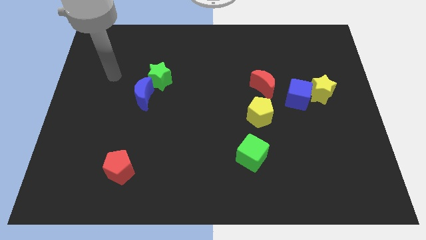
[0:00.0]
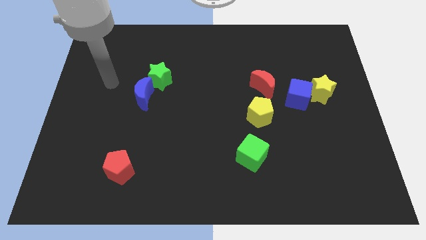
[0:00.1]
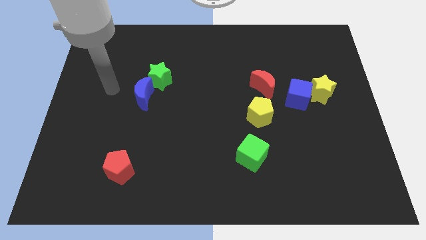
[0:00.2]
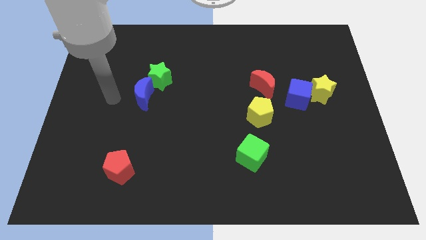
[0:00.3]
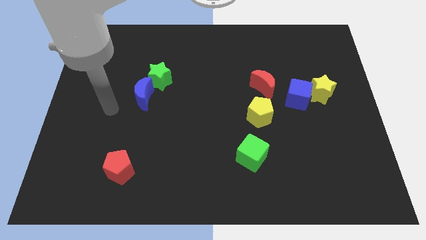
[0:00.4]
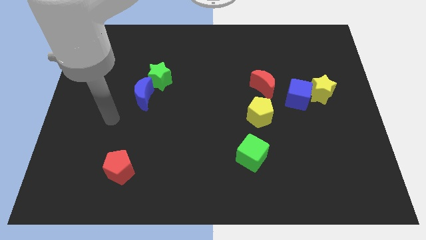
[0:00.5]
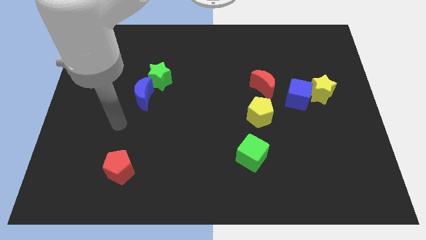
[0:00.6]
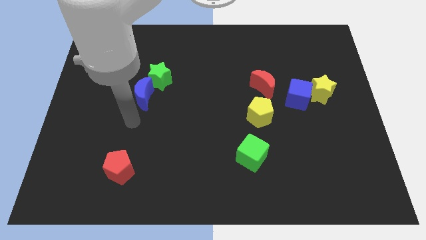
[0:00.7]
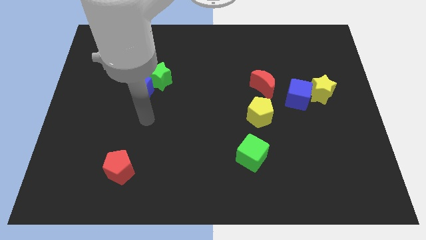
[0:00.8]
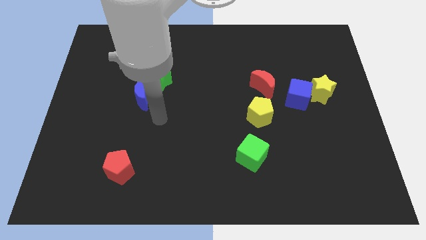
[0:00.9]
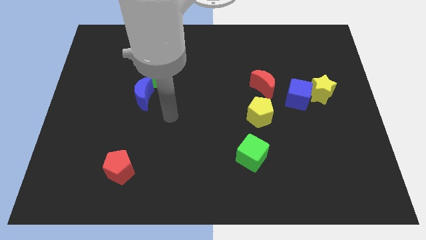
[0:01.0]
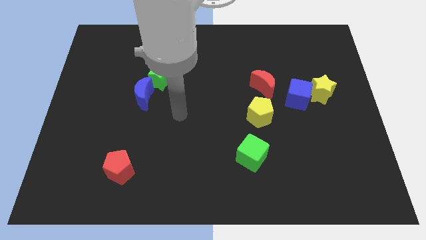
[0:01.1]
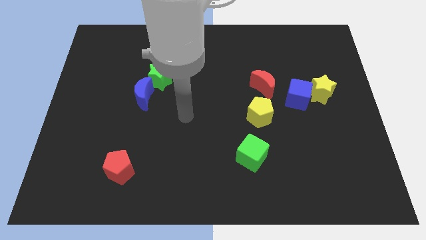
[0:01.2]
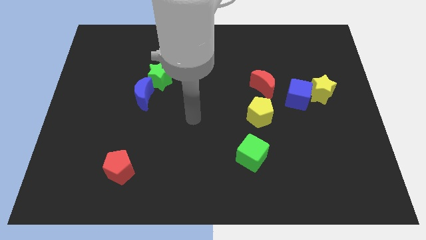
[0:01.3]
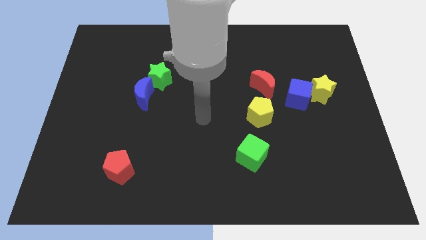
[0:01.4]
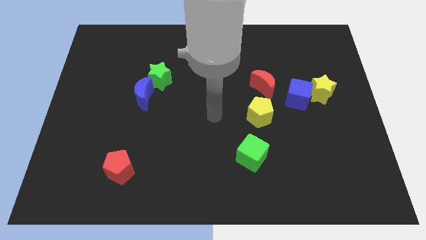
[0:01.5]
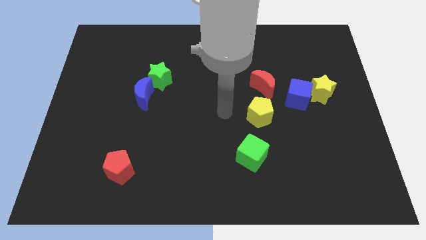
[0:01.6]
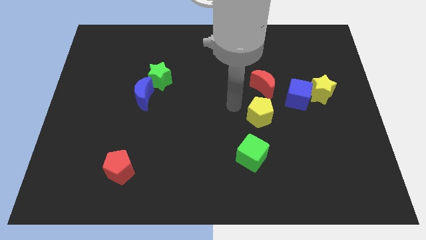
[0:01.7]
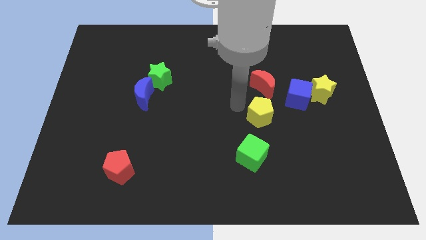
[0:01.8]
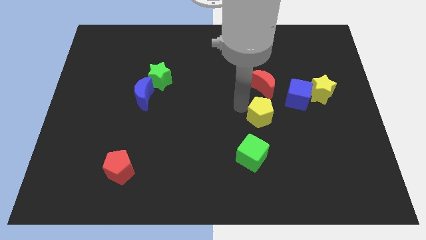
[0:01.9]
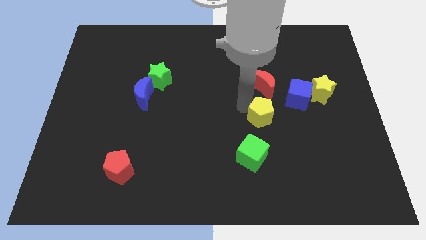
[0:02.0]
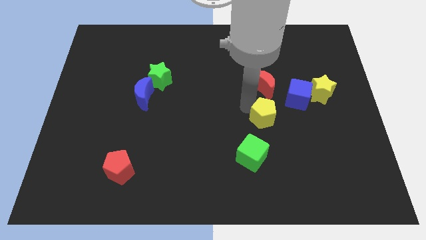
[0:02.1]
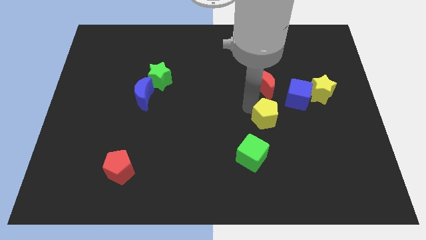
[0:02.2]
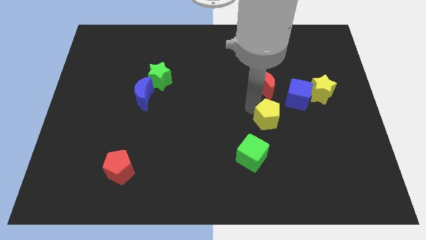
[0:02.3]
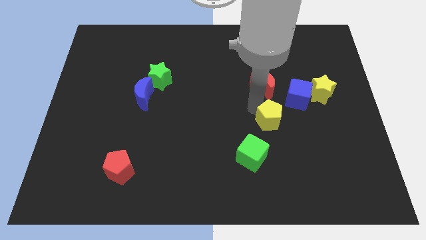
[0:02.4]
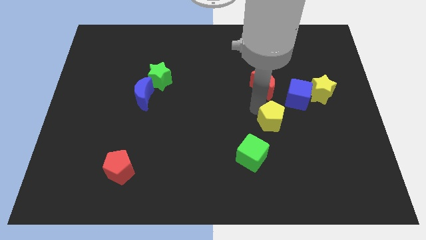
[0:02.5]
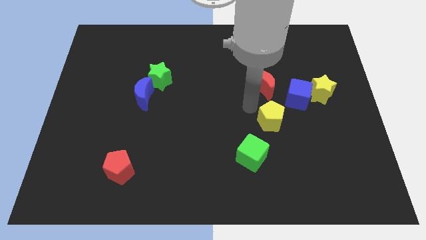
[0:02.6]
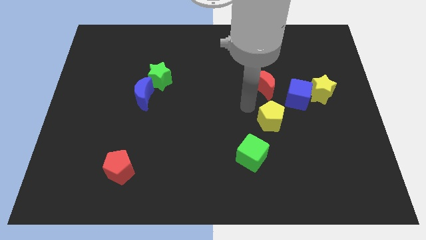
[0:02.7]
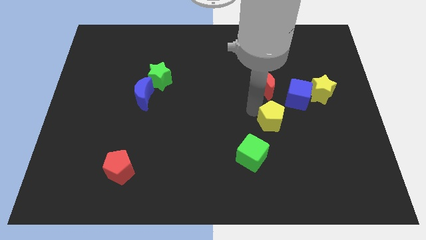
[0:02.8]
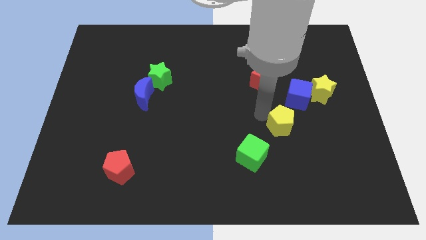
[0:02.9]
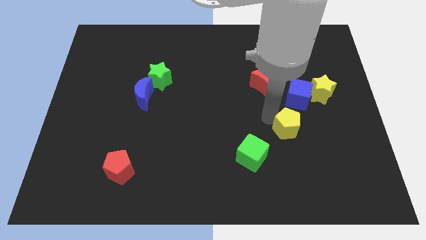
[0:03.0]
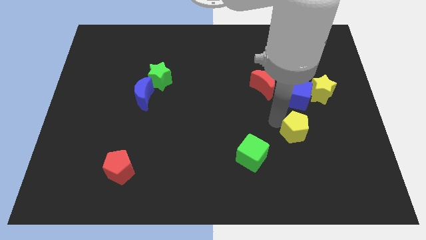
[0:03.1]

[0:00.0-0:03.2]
push the yellow pentagon a bit diagonally downwards and right

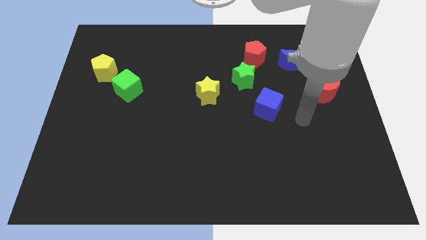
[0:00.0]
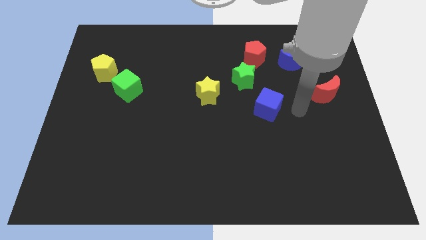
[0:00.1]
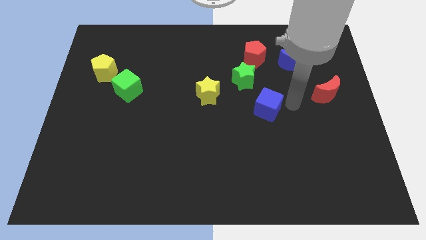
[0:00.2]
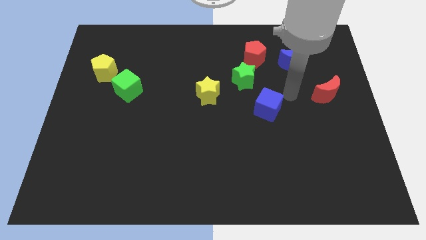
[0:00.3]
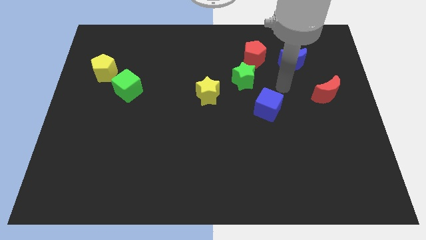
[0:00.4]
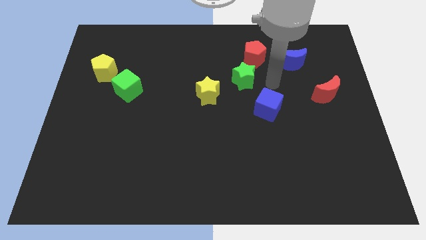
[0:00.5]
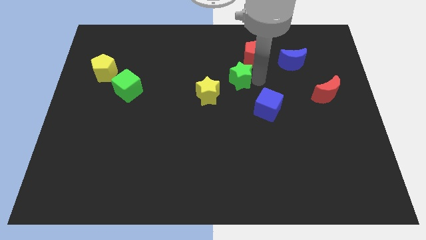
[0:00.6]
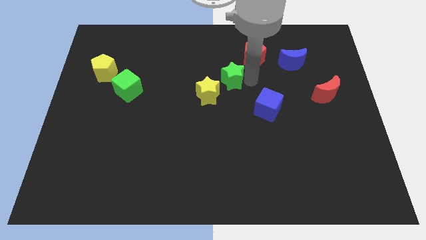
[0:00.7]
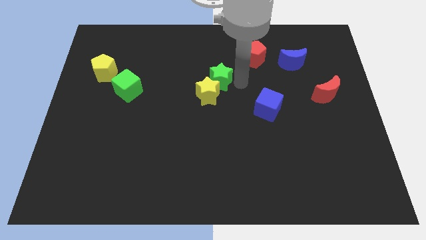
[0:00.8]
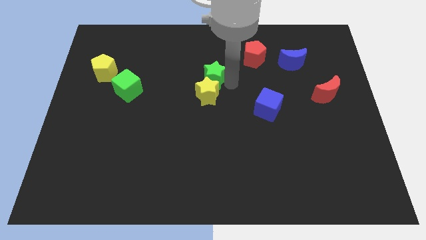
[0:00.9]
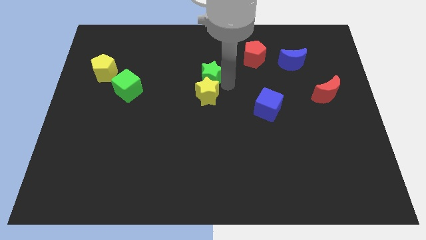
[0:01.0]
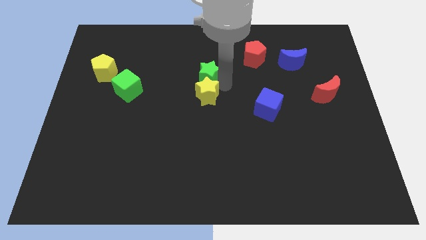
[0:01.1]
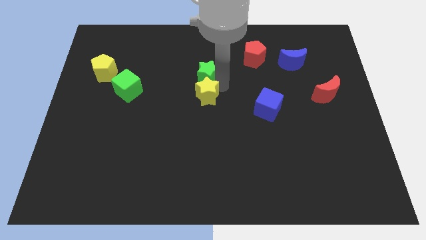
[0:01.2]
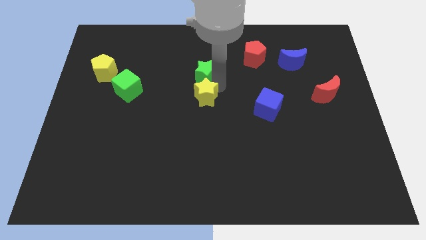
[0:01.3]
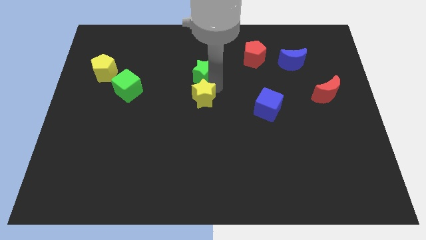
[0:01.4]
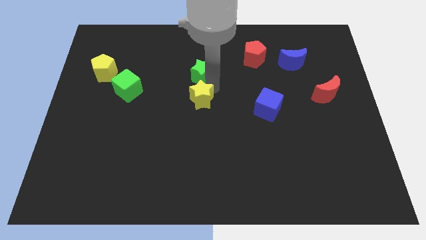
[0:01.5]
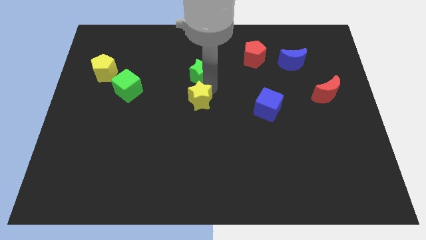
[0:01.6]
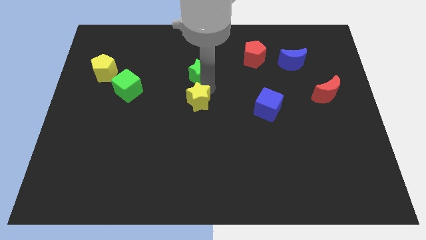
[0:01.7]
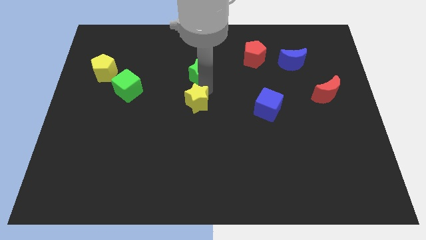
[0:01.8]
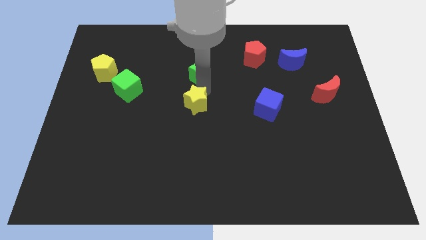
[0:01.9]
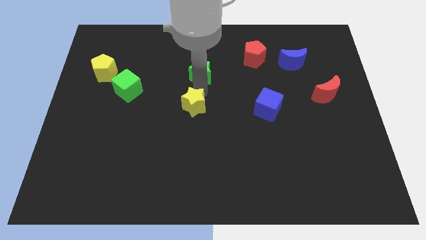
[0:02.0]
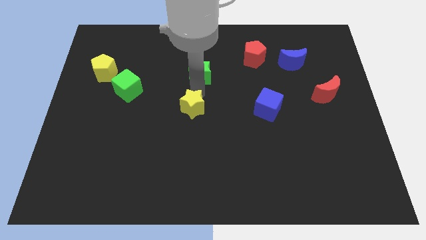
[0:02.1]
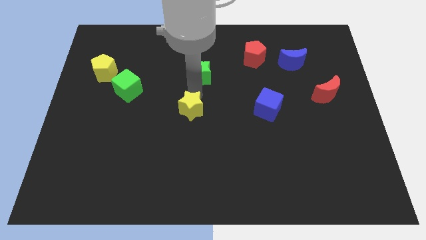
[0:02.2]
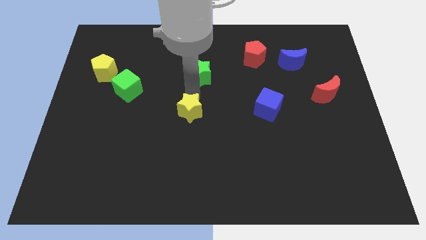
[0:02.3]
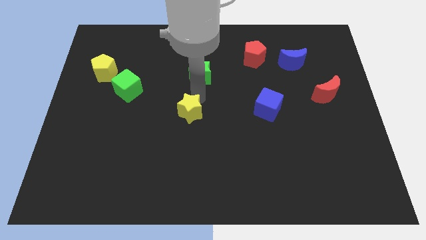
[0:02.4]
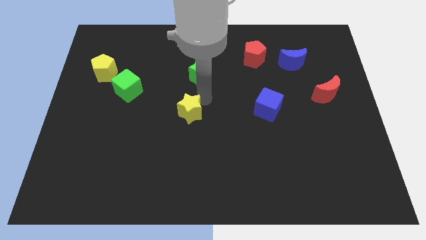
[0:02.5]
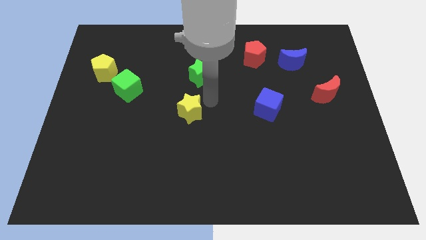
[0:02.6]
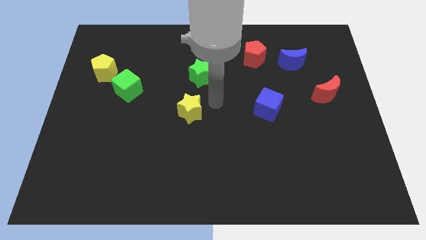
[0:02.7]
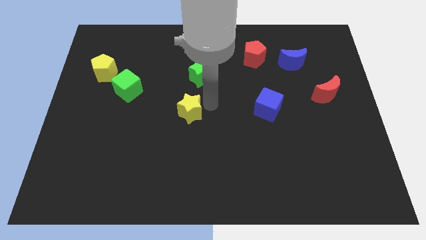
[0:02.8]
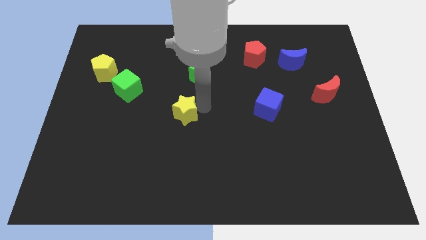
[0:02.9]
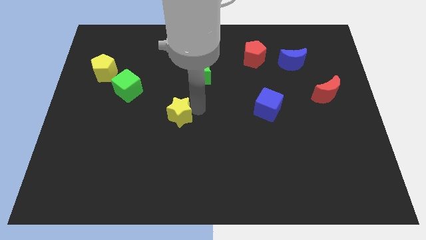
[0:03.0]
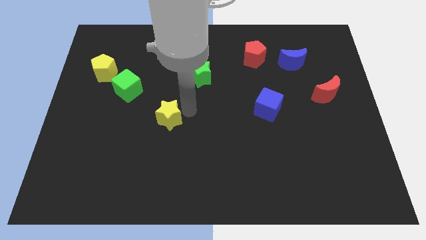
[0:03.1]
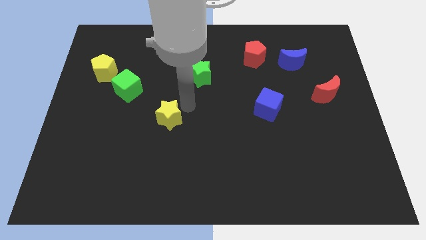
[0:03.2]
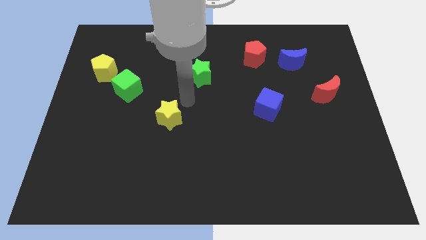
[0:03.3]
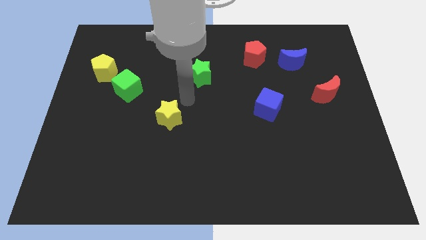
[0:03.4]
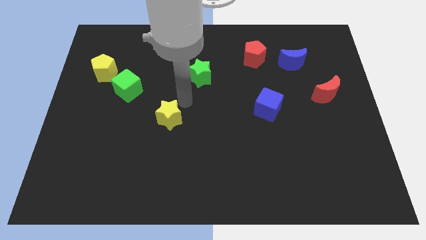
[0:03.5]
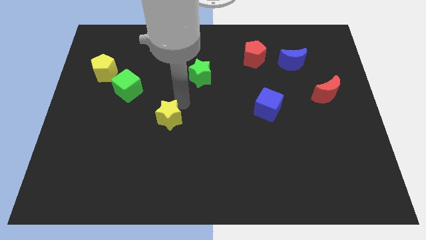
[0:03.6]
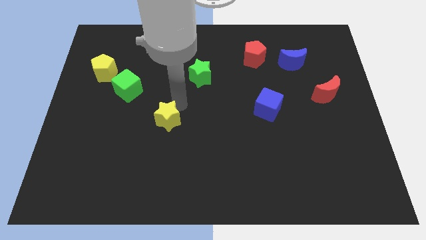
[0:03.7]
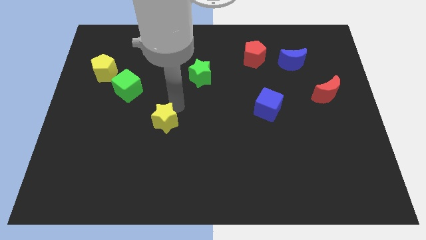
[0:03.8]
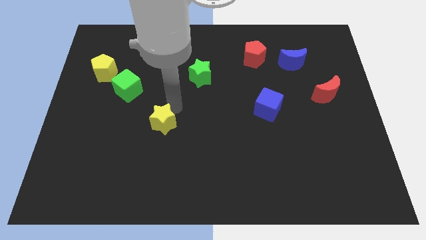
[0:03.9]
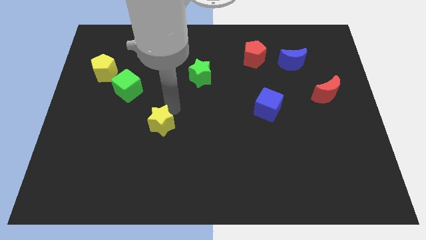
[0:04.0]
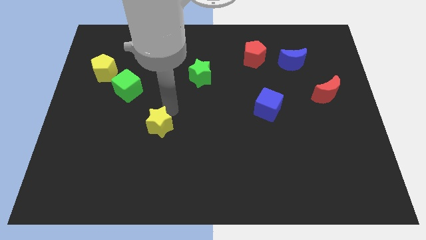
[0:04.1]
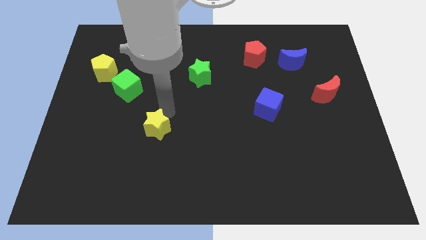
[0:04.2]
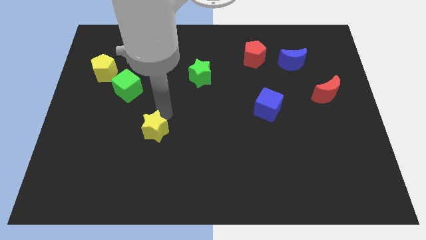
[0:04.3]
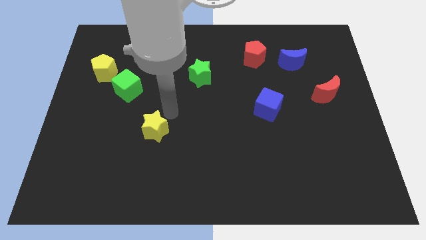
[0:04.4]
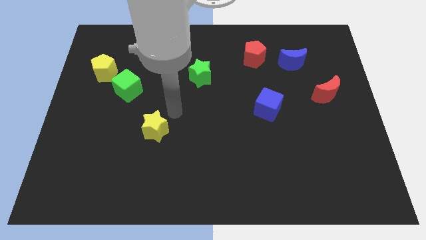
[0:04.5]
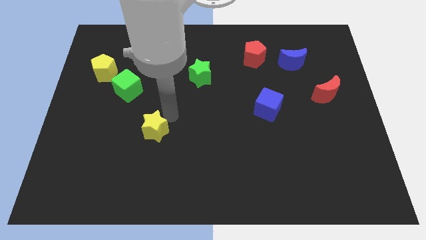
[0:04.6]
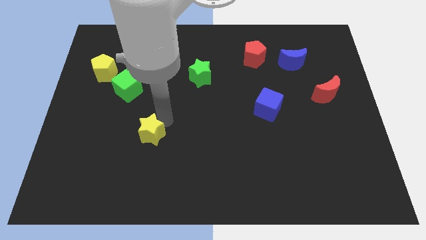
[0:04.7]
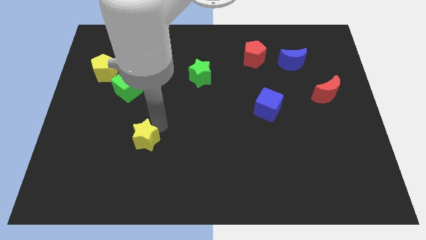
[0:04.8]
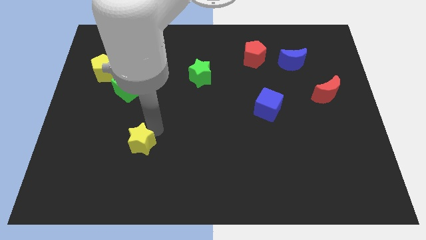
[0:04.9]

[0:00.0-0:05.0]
move the yellow star diagonally downwards and left
